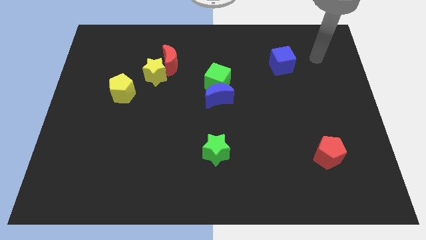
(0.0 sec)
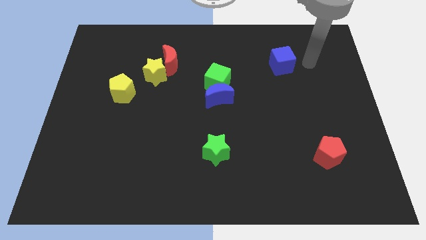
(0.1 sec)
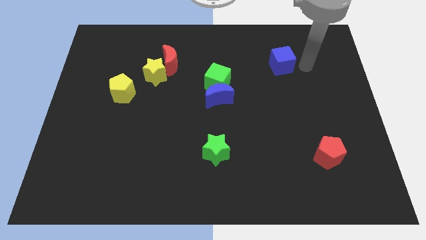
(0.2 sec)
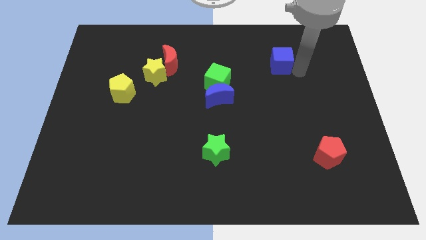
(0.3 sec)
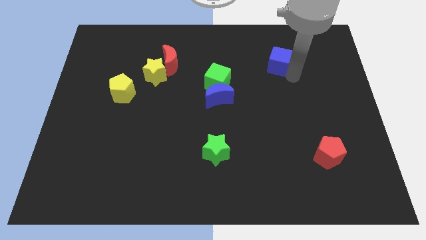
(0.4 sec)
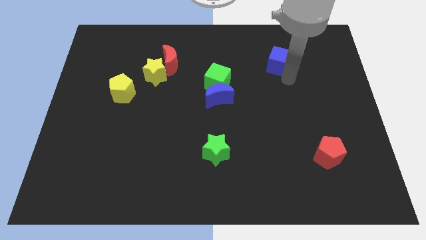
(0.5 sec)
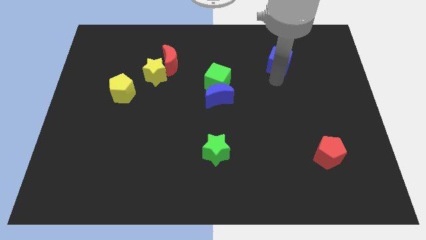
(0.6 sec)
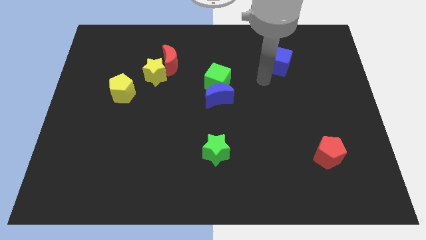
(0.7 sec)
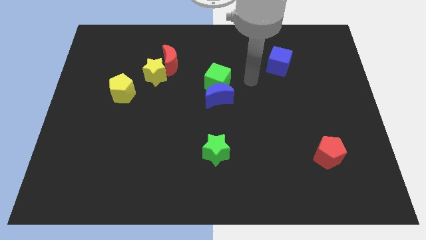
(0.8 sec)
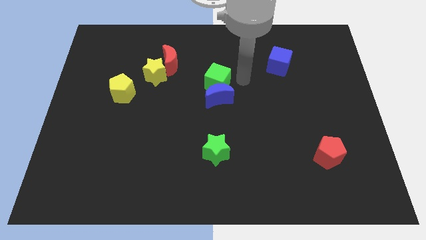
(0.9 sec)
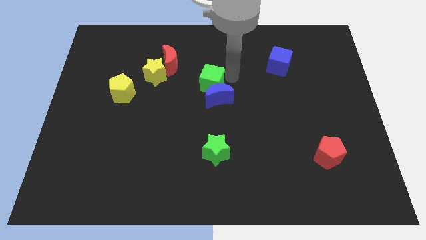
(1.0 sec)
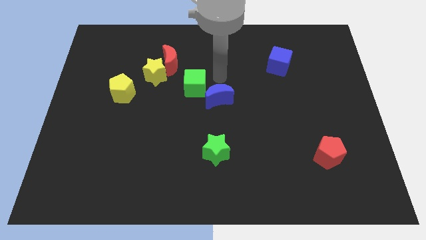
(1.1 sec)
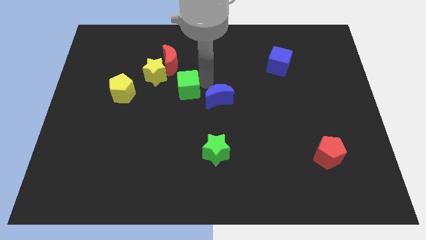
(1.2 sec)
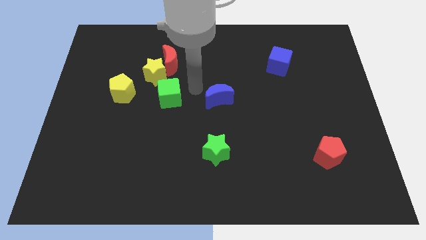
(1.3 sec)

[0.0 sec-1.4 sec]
move the blue moon away from the green cube

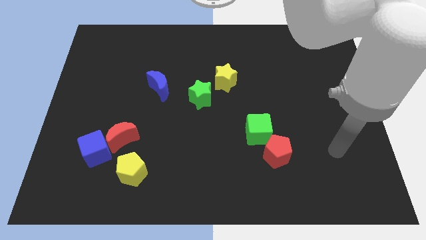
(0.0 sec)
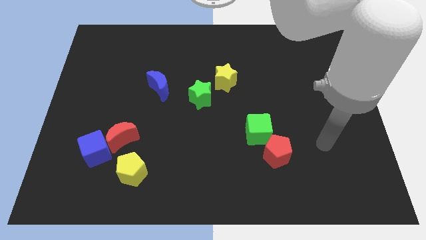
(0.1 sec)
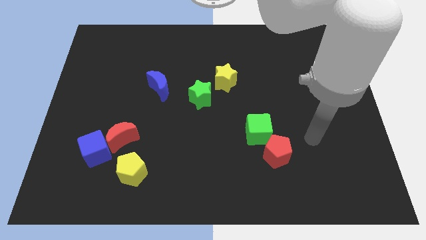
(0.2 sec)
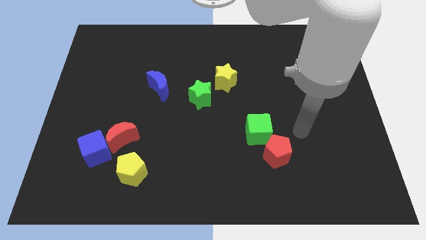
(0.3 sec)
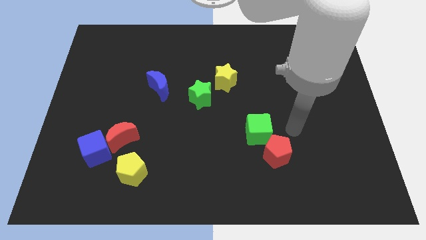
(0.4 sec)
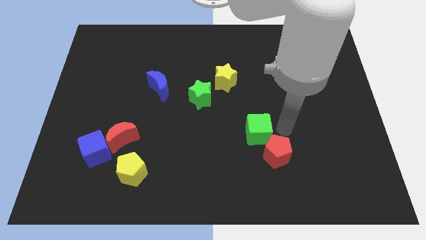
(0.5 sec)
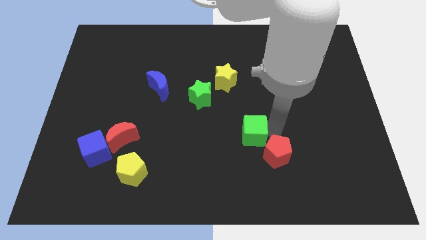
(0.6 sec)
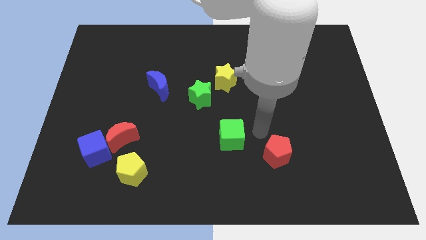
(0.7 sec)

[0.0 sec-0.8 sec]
move the red pentagon away from the green cube

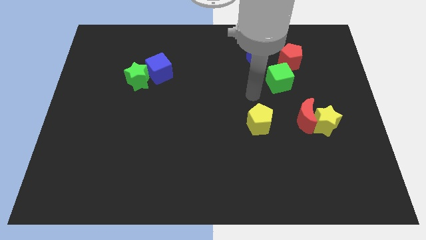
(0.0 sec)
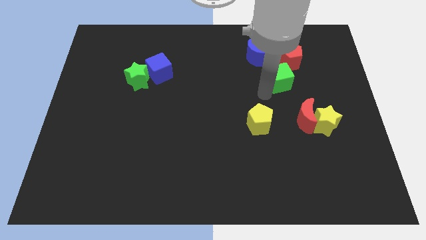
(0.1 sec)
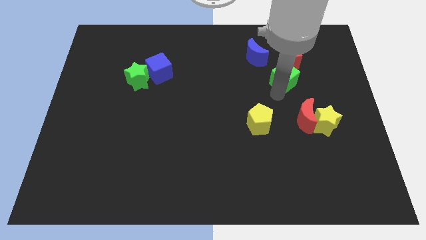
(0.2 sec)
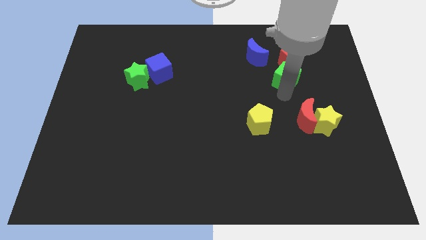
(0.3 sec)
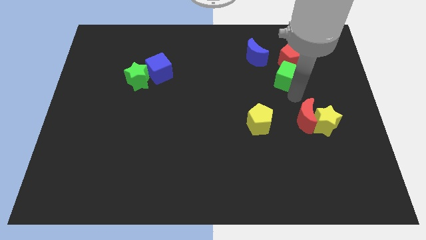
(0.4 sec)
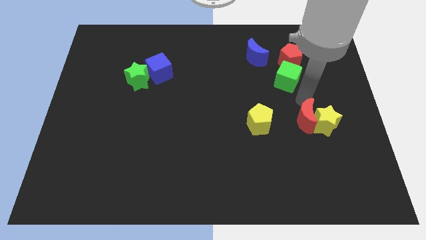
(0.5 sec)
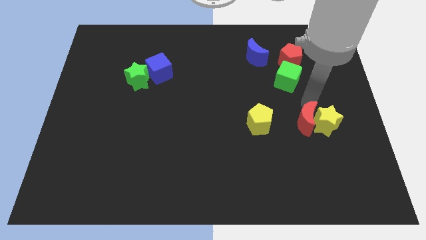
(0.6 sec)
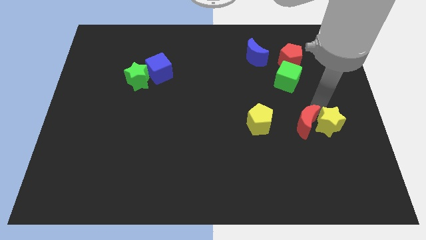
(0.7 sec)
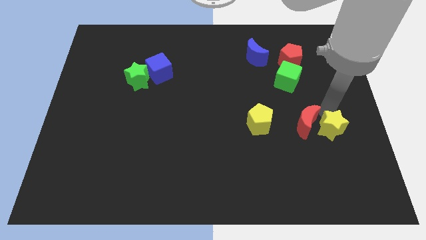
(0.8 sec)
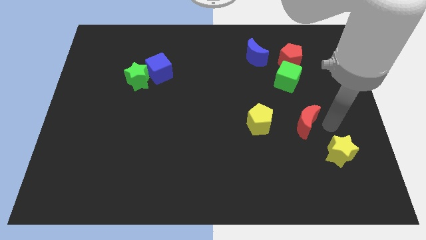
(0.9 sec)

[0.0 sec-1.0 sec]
pull the red moon apart from the yellow star

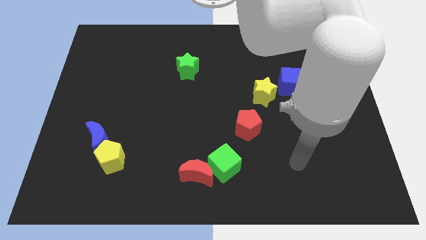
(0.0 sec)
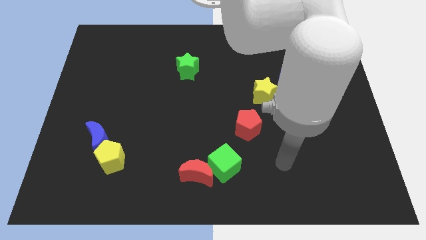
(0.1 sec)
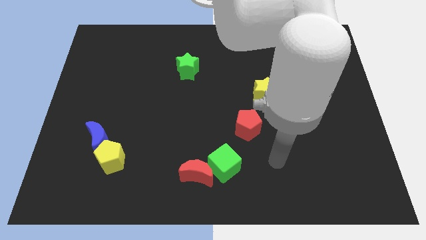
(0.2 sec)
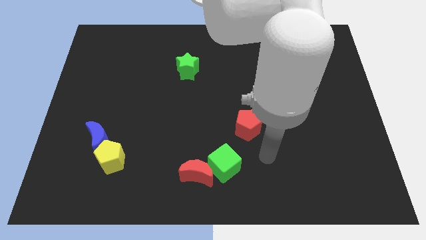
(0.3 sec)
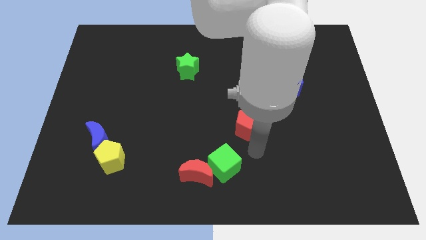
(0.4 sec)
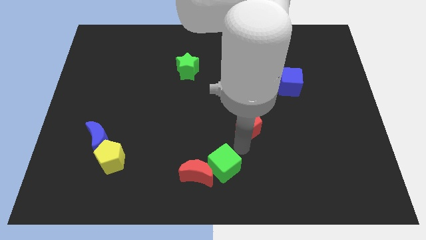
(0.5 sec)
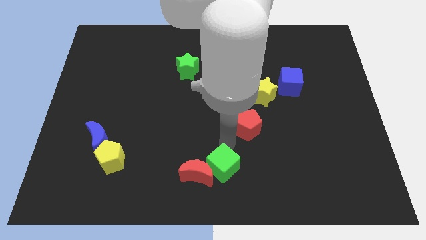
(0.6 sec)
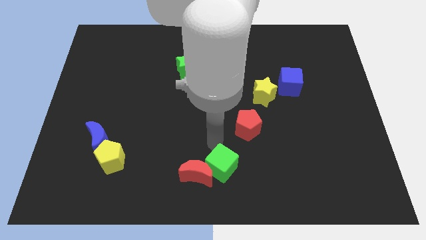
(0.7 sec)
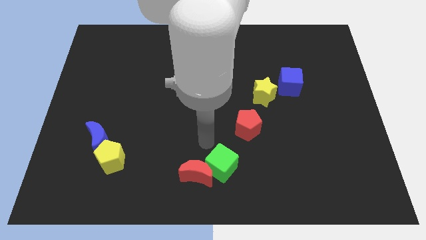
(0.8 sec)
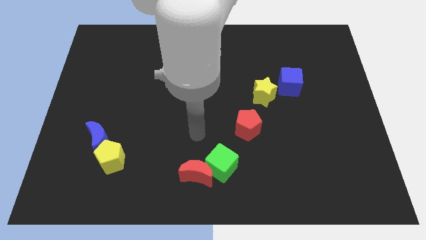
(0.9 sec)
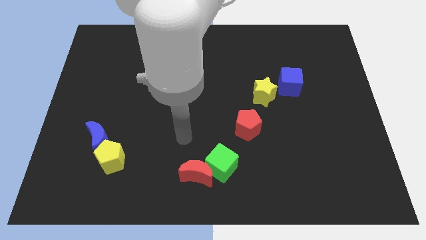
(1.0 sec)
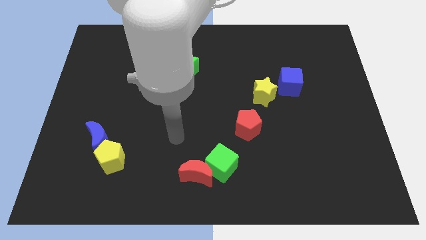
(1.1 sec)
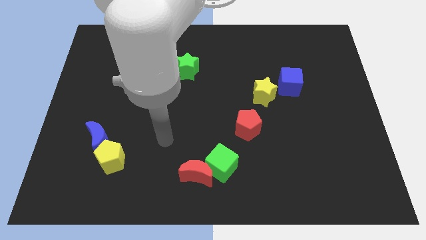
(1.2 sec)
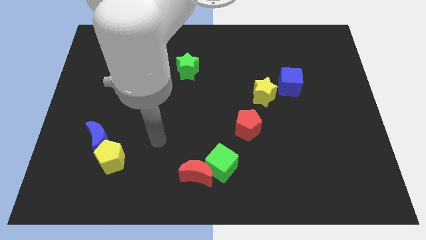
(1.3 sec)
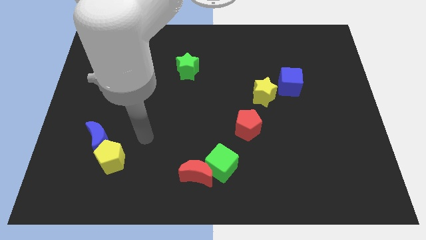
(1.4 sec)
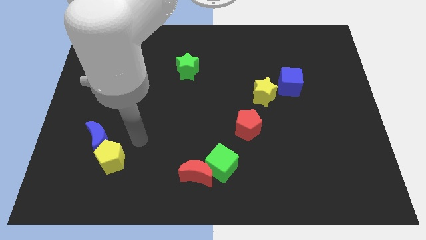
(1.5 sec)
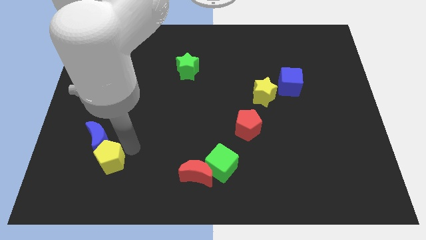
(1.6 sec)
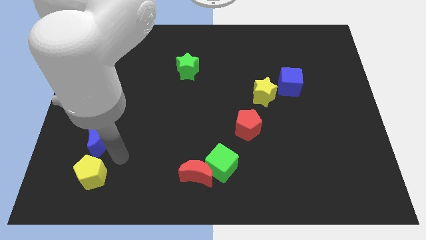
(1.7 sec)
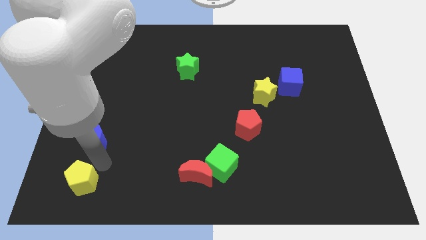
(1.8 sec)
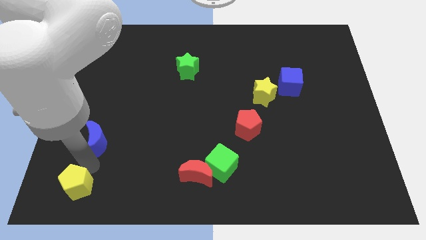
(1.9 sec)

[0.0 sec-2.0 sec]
separate the blue moon from the yellow pentagon

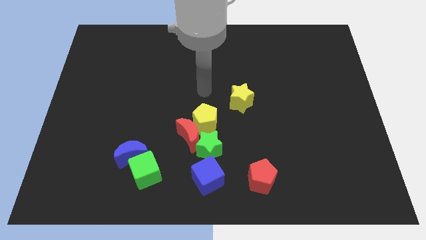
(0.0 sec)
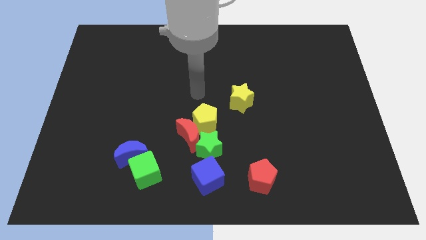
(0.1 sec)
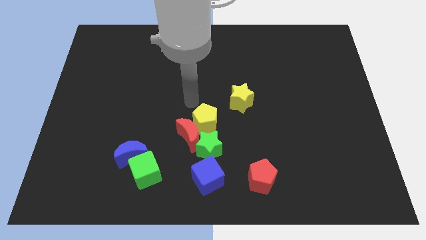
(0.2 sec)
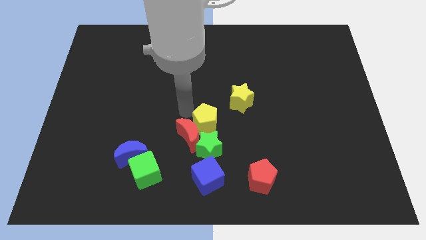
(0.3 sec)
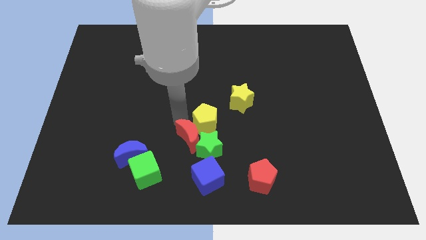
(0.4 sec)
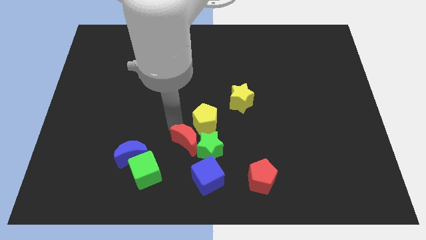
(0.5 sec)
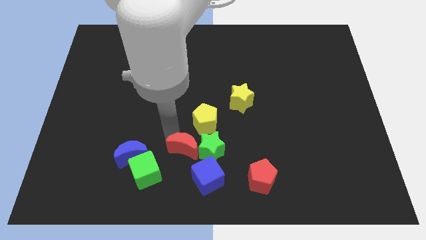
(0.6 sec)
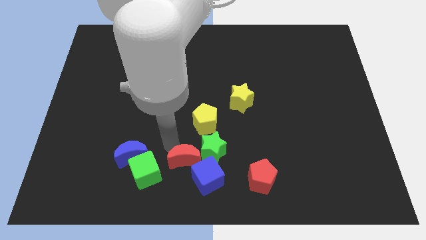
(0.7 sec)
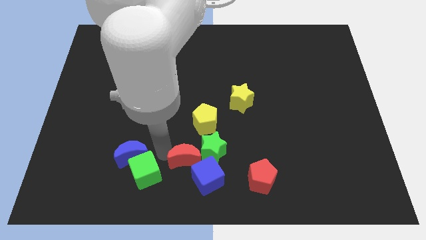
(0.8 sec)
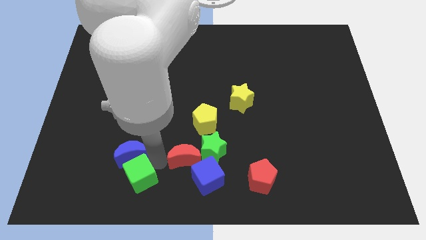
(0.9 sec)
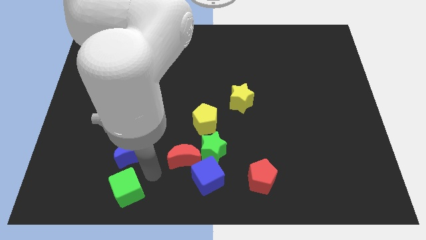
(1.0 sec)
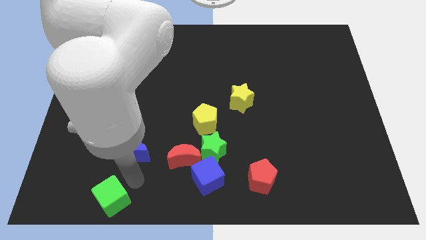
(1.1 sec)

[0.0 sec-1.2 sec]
separate the blue moon from the green cube

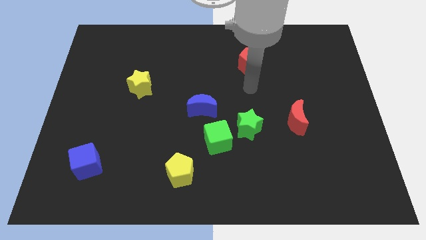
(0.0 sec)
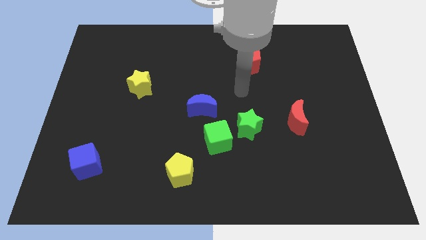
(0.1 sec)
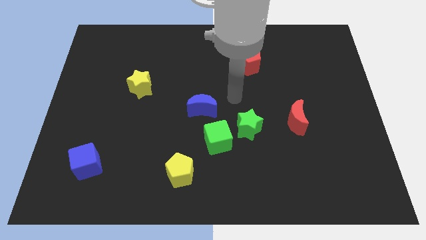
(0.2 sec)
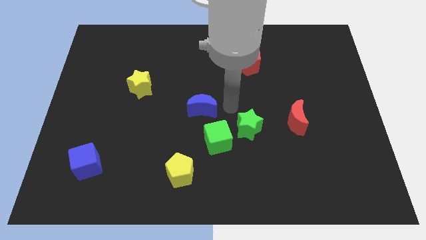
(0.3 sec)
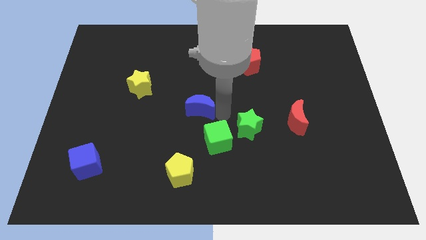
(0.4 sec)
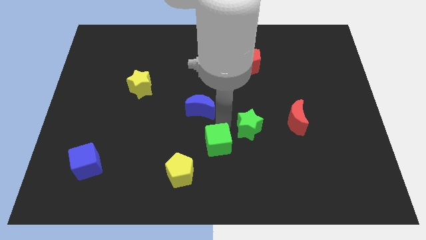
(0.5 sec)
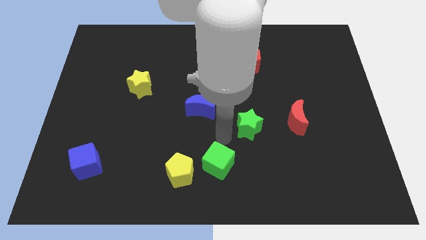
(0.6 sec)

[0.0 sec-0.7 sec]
move the green star away from the green cube

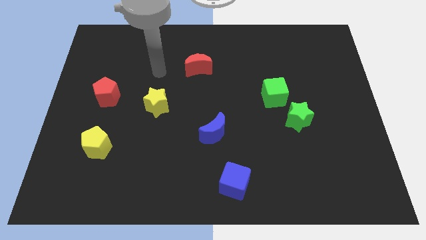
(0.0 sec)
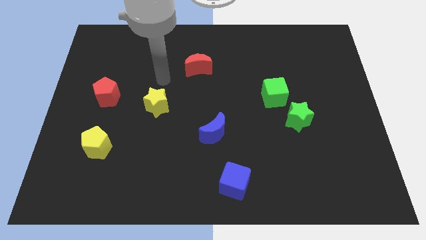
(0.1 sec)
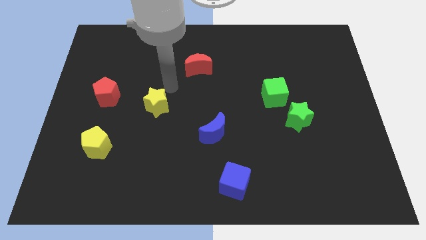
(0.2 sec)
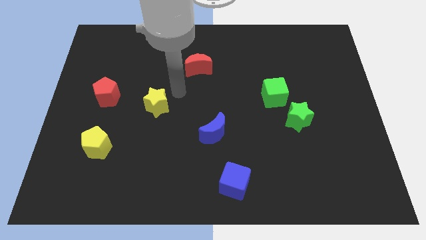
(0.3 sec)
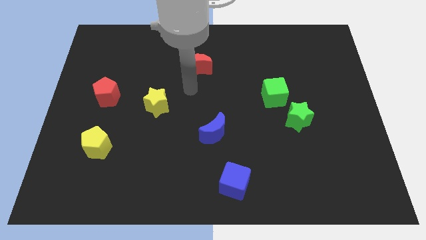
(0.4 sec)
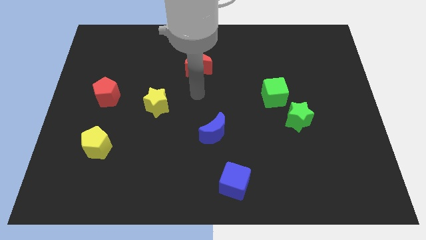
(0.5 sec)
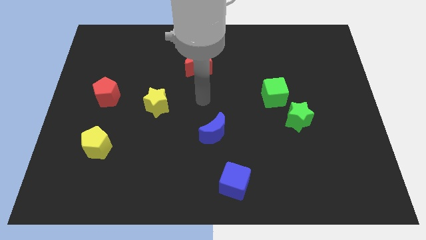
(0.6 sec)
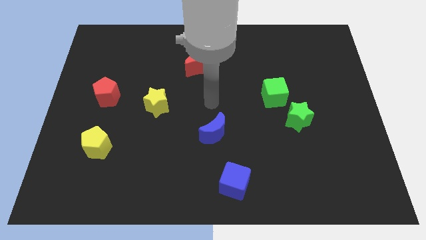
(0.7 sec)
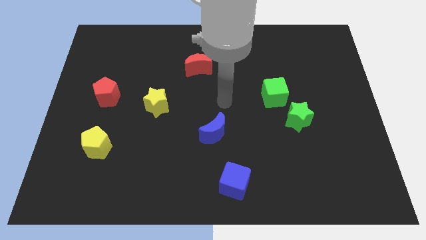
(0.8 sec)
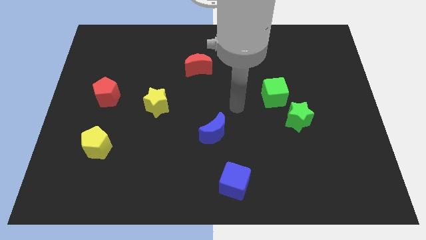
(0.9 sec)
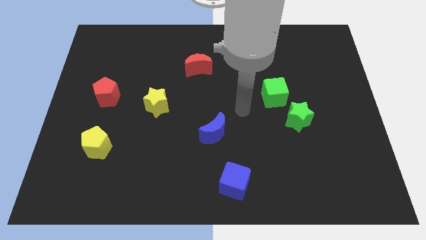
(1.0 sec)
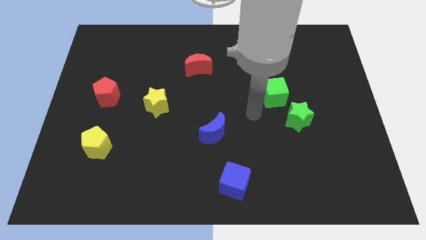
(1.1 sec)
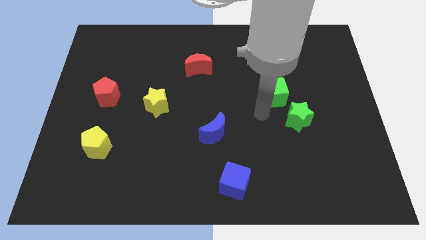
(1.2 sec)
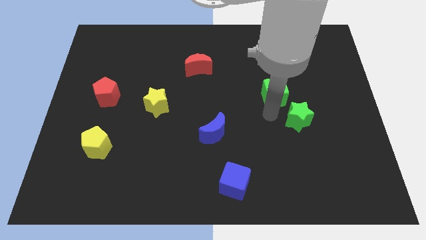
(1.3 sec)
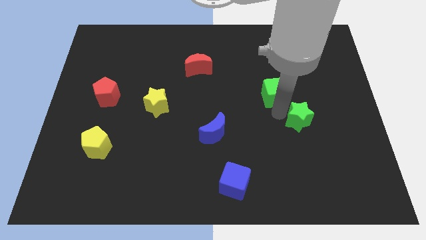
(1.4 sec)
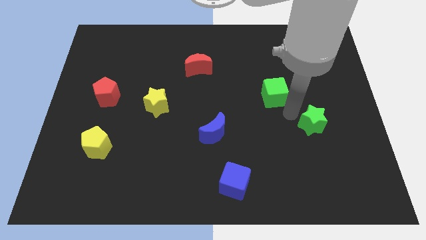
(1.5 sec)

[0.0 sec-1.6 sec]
pull the green cube apart from the green star

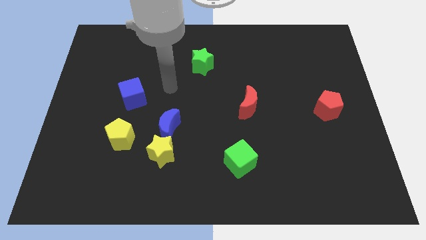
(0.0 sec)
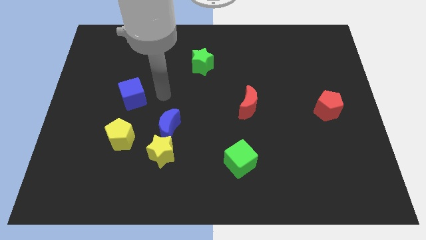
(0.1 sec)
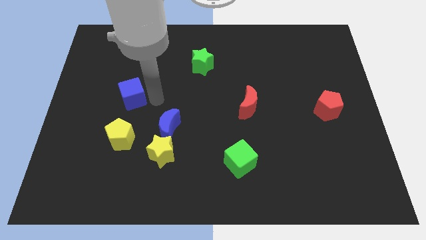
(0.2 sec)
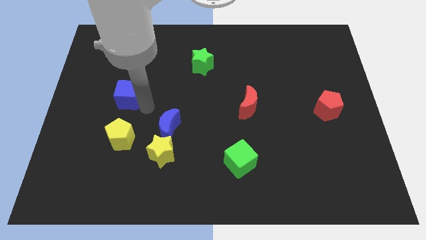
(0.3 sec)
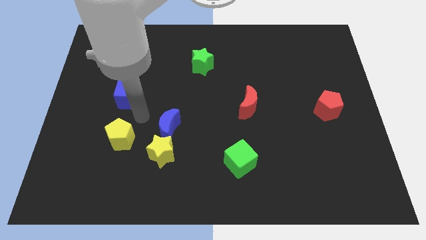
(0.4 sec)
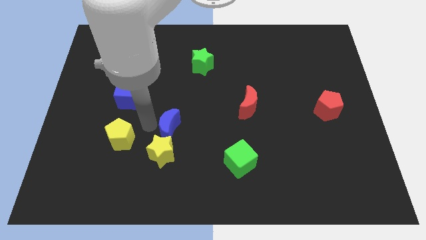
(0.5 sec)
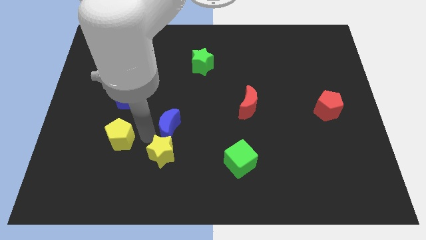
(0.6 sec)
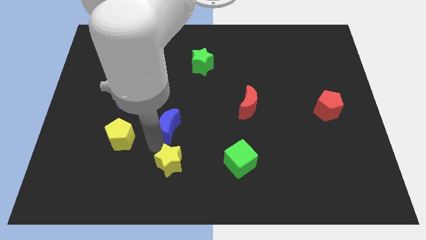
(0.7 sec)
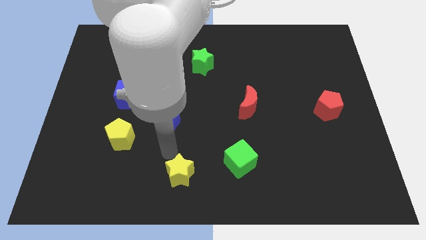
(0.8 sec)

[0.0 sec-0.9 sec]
pull the blue moon apart from the yellow star
